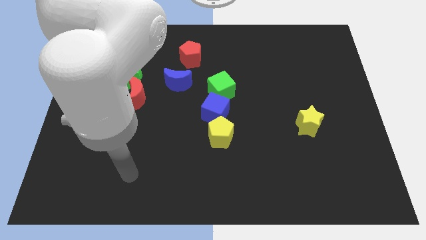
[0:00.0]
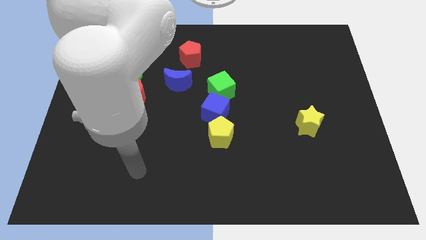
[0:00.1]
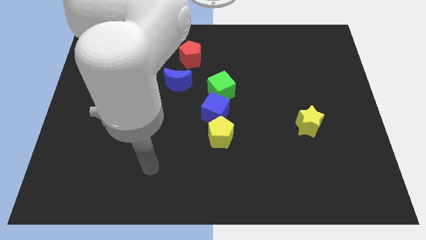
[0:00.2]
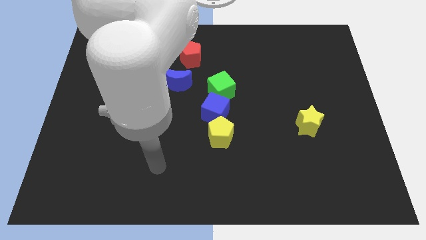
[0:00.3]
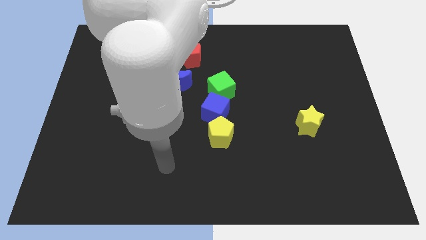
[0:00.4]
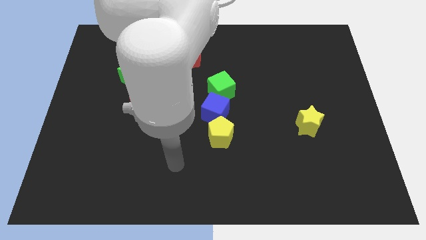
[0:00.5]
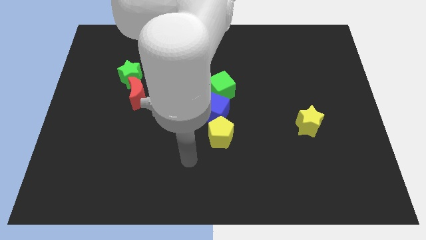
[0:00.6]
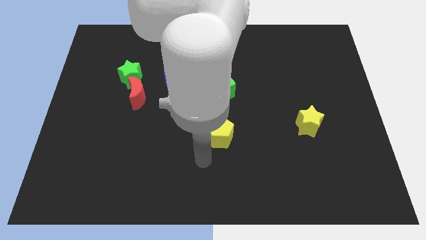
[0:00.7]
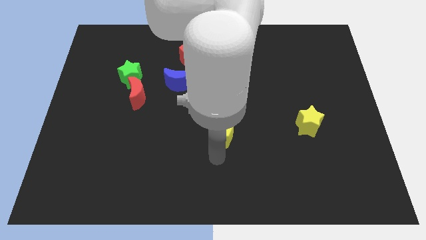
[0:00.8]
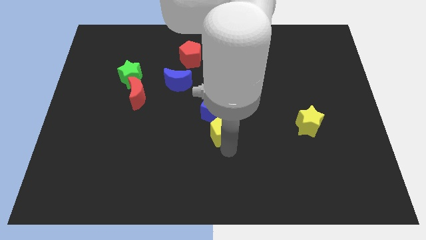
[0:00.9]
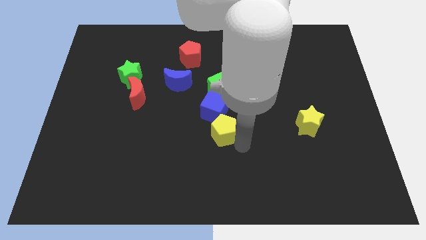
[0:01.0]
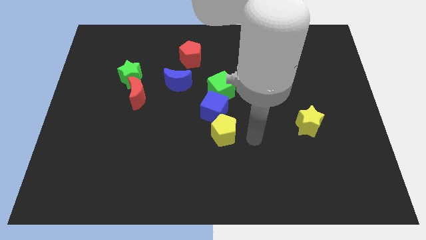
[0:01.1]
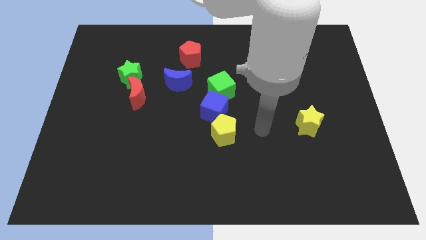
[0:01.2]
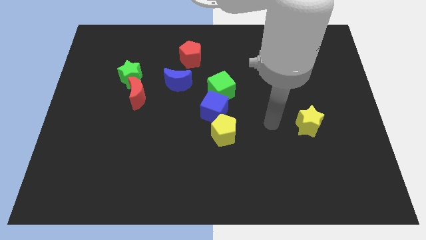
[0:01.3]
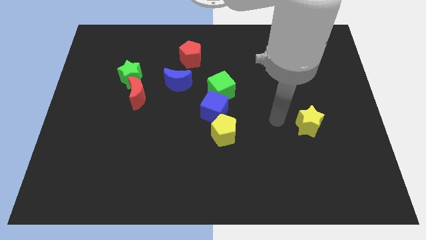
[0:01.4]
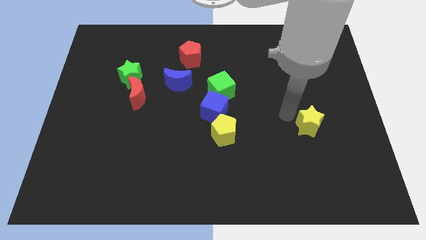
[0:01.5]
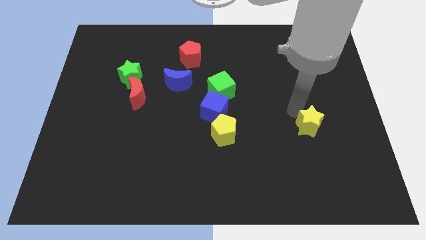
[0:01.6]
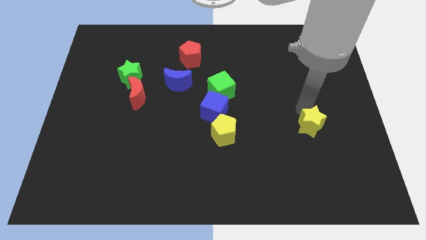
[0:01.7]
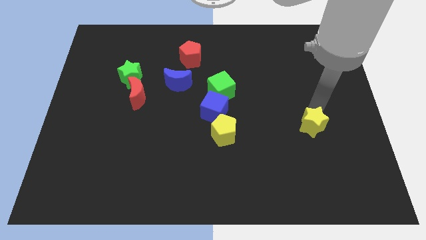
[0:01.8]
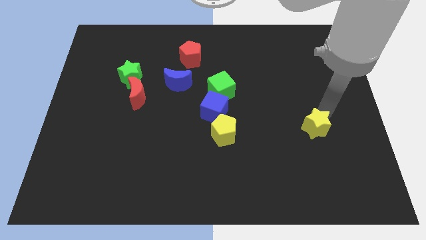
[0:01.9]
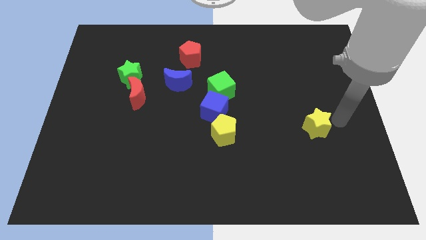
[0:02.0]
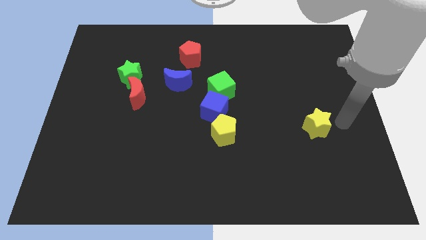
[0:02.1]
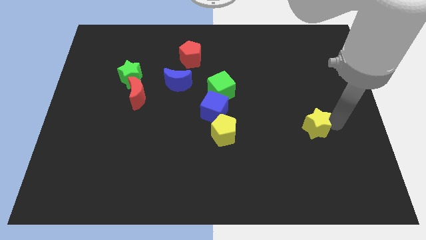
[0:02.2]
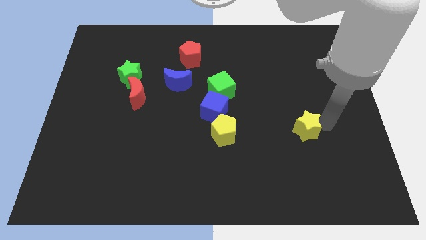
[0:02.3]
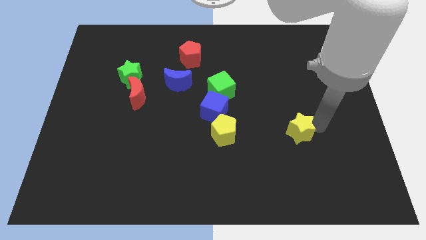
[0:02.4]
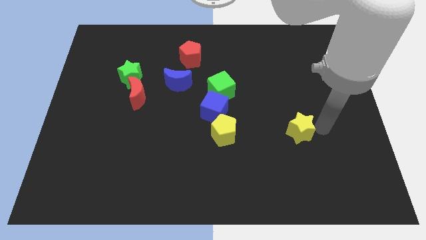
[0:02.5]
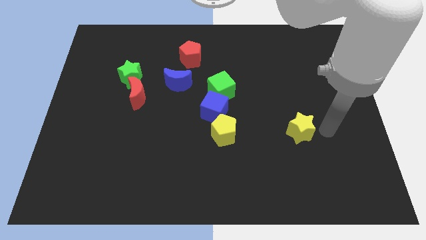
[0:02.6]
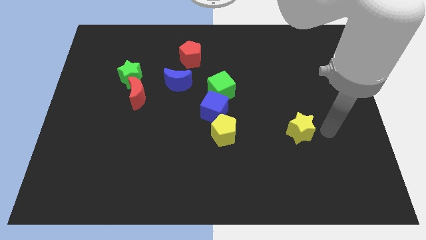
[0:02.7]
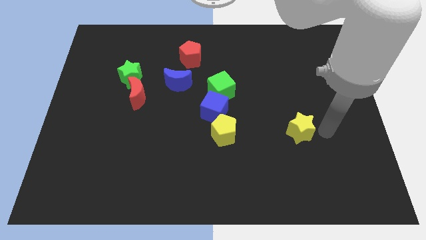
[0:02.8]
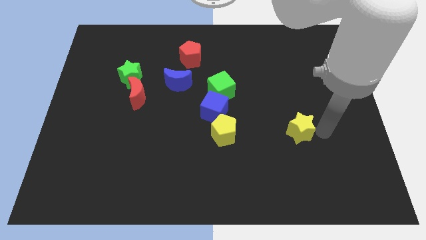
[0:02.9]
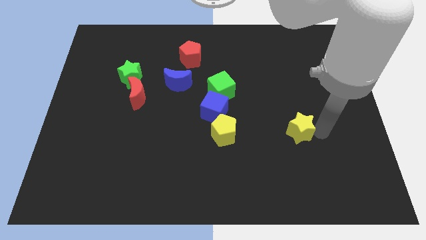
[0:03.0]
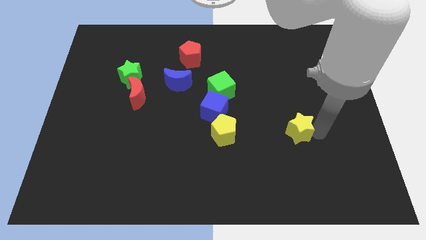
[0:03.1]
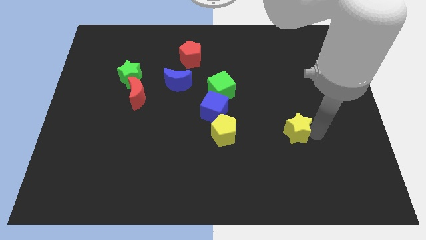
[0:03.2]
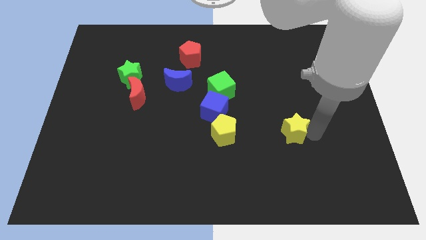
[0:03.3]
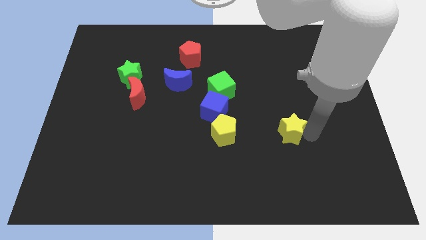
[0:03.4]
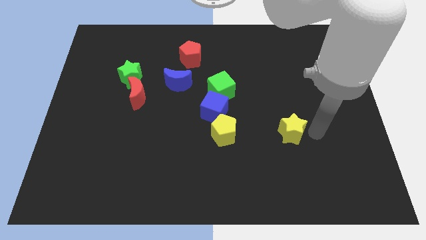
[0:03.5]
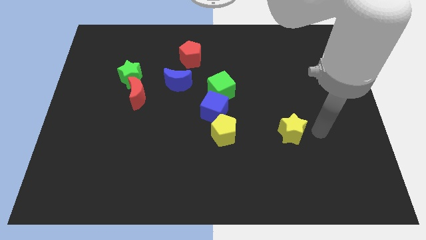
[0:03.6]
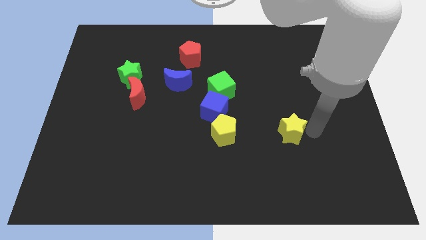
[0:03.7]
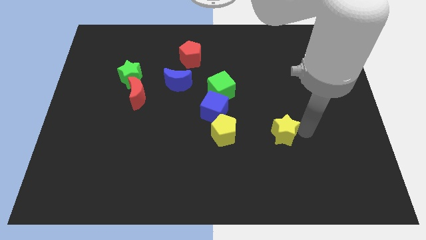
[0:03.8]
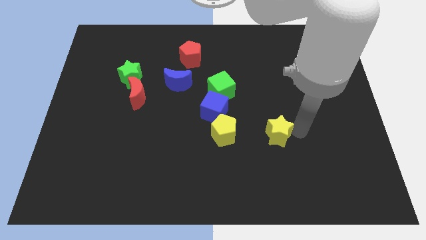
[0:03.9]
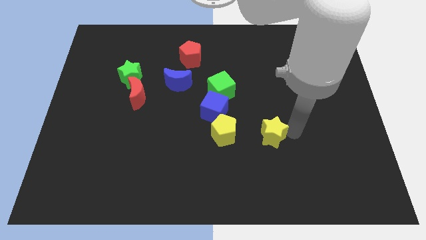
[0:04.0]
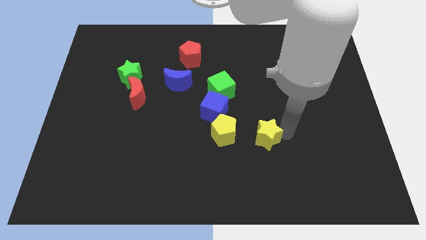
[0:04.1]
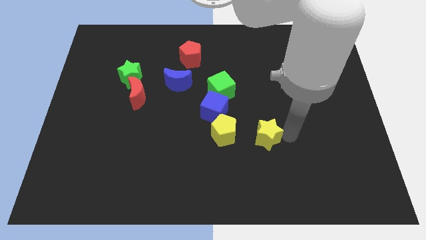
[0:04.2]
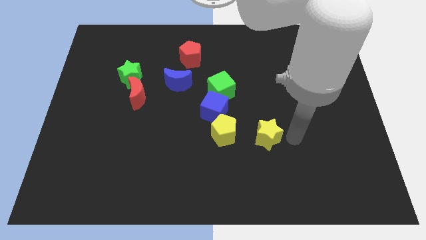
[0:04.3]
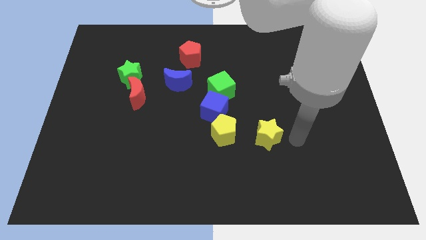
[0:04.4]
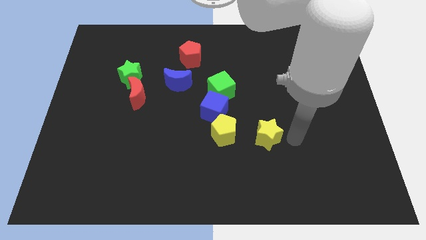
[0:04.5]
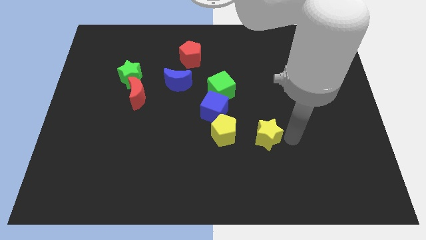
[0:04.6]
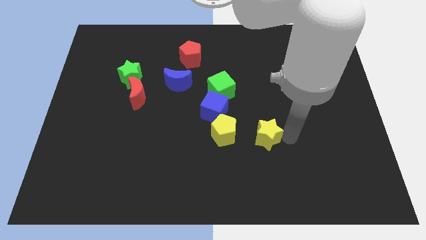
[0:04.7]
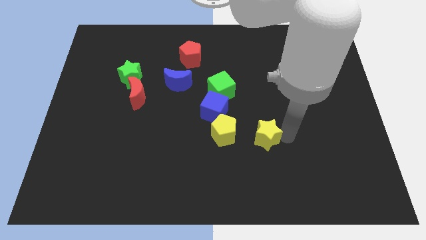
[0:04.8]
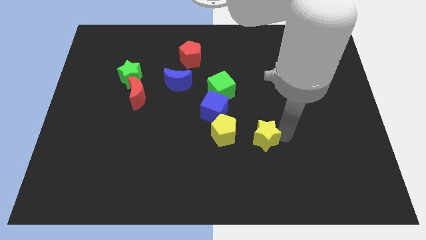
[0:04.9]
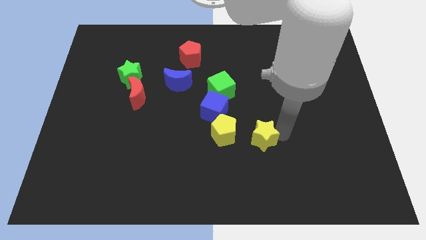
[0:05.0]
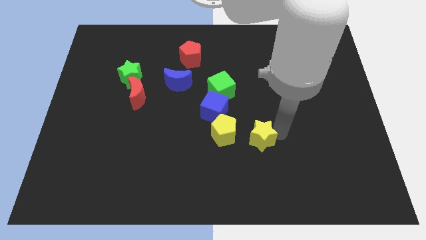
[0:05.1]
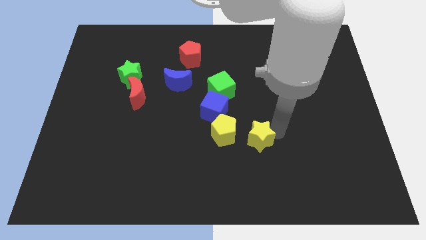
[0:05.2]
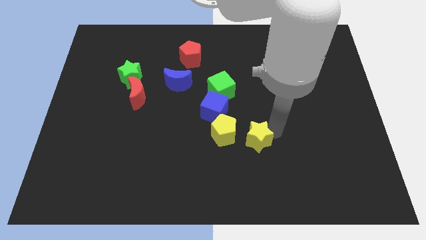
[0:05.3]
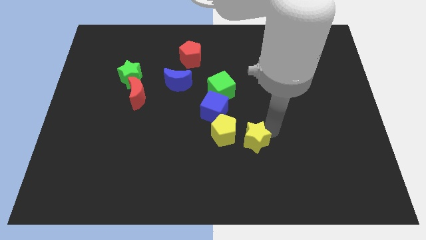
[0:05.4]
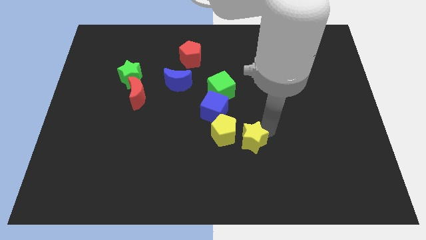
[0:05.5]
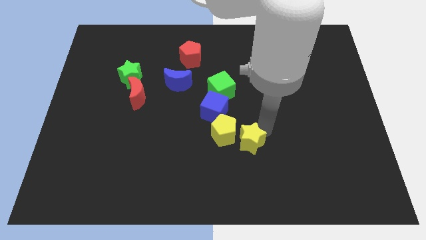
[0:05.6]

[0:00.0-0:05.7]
push the yellow star close to the yellow pentagon
